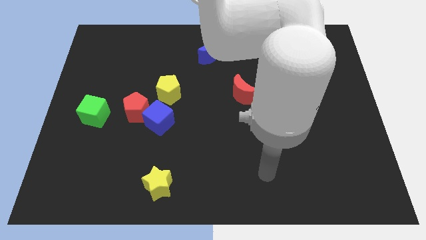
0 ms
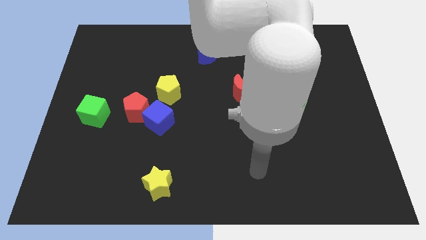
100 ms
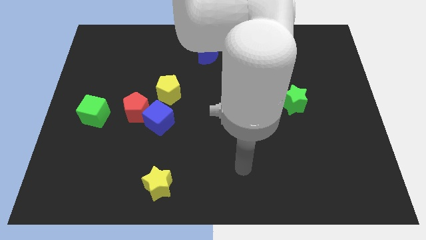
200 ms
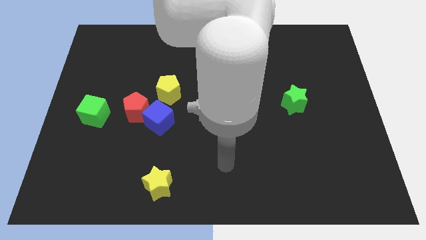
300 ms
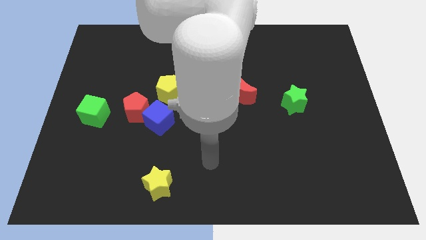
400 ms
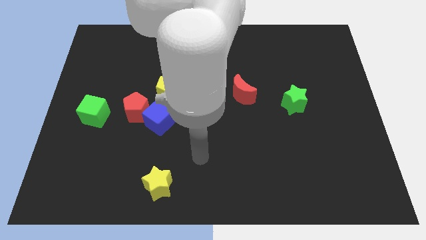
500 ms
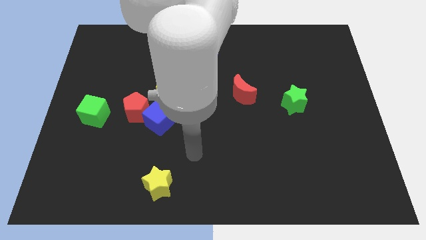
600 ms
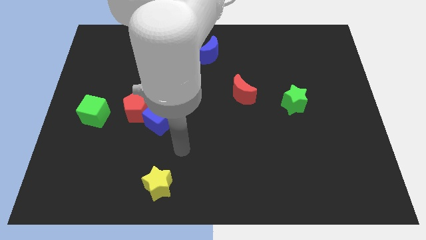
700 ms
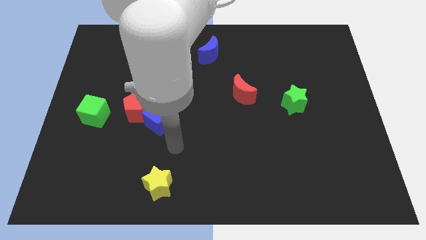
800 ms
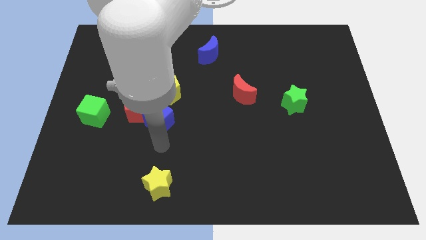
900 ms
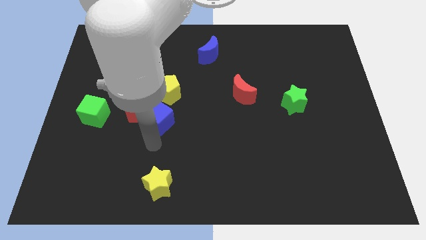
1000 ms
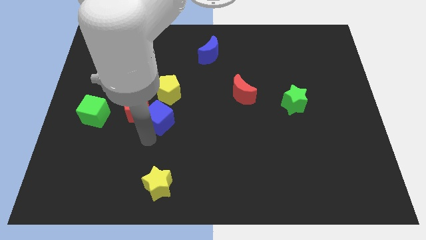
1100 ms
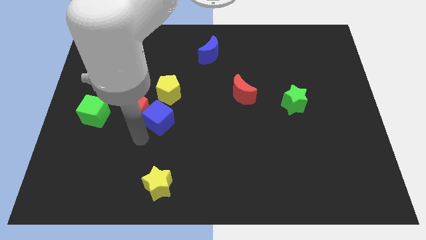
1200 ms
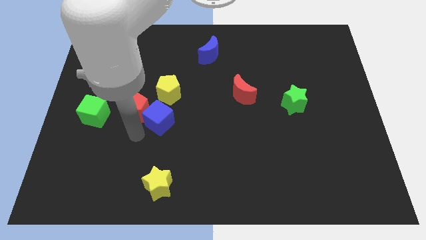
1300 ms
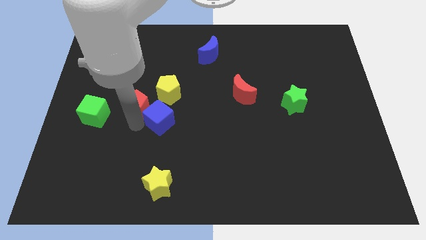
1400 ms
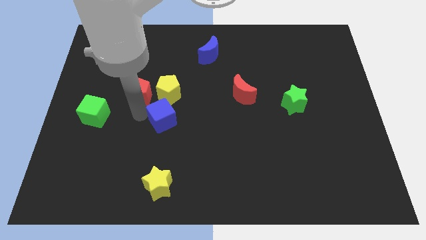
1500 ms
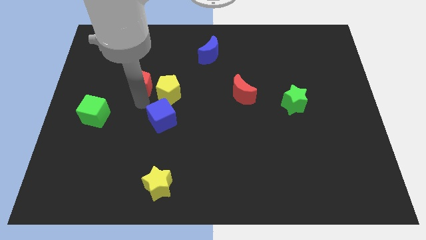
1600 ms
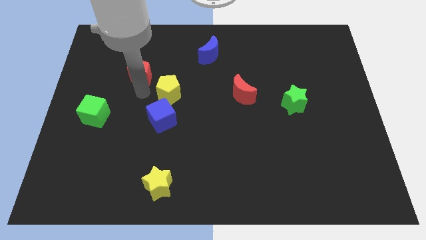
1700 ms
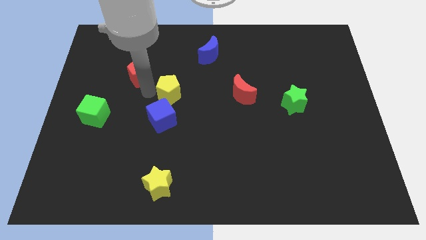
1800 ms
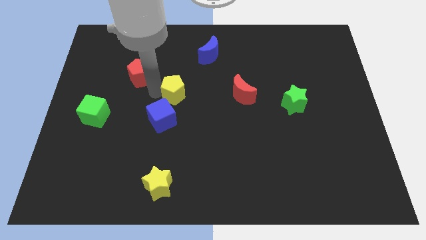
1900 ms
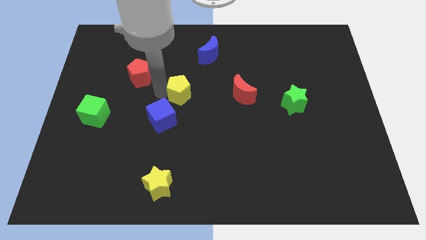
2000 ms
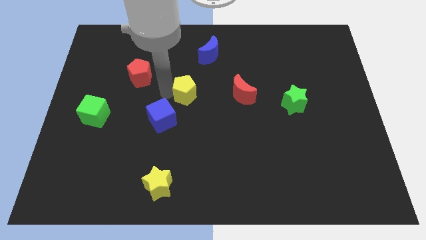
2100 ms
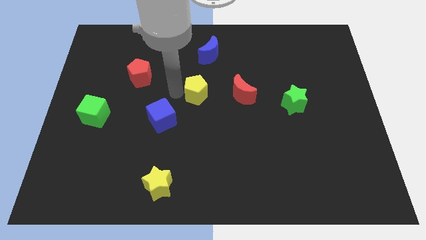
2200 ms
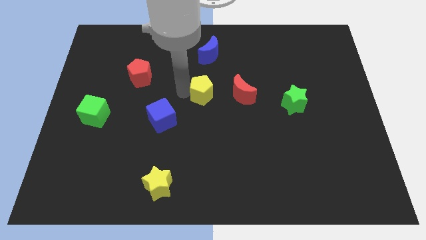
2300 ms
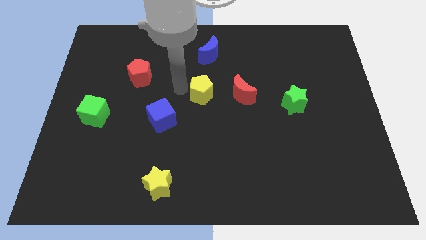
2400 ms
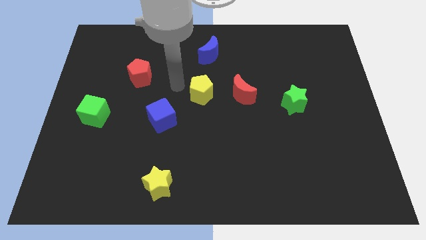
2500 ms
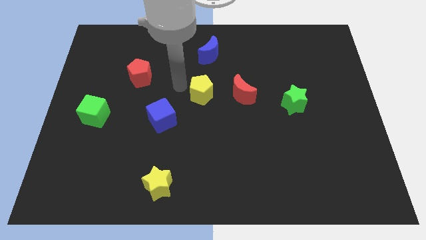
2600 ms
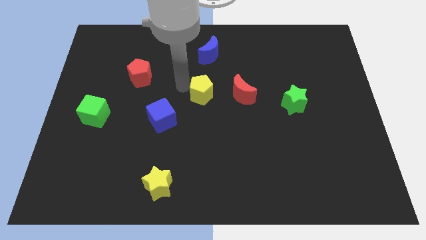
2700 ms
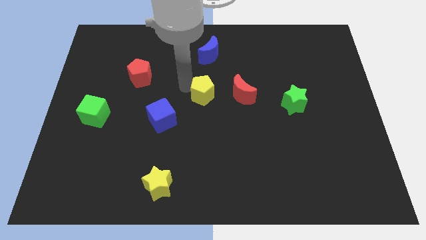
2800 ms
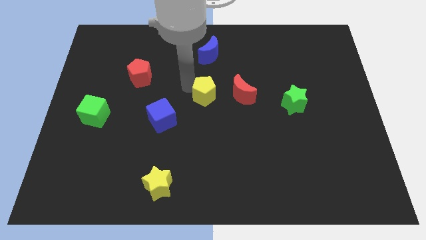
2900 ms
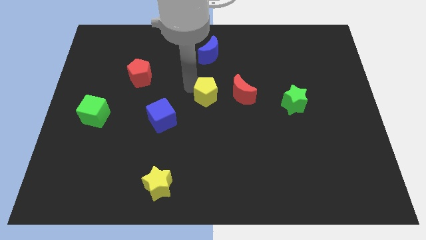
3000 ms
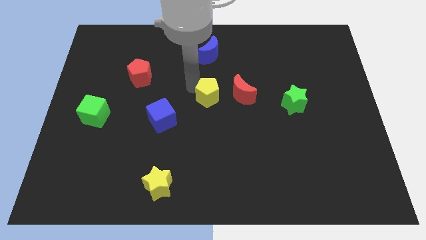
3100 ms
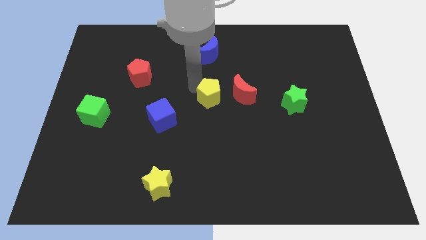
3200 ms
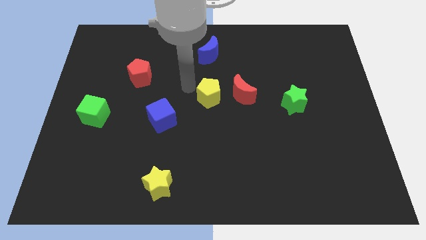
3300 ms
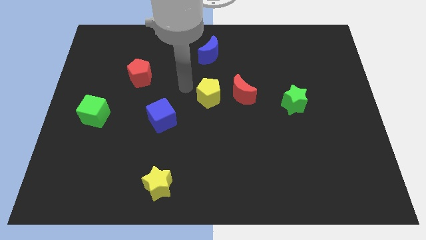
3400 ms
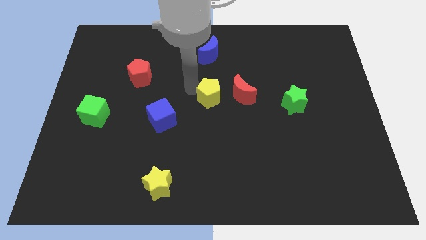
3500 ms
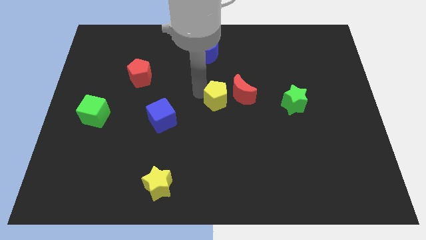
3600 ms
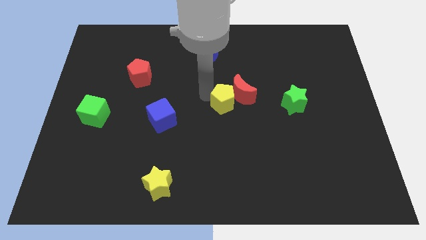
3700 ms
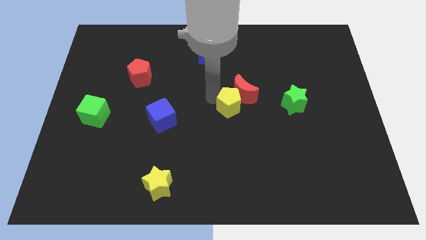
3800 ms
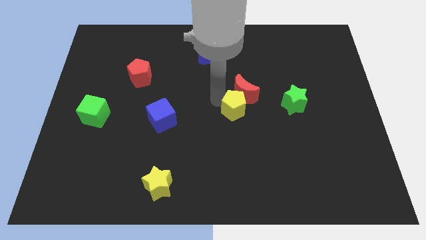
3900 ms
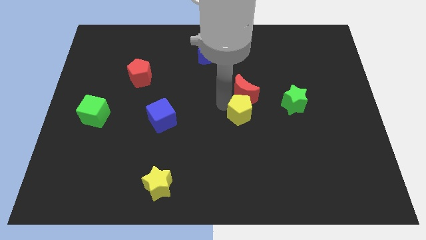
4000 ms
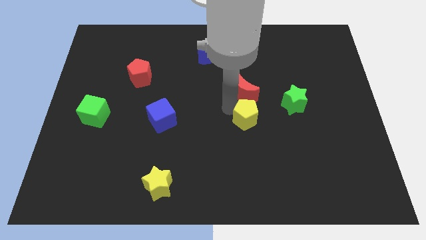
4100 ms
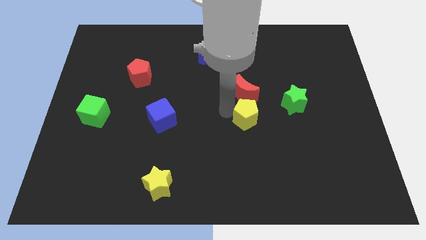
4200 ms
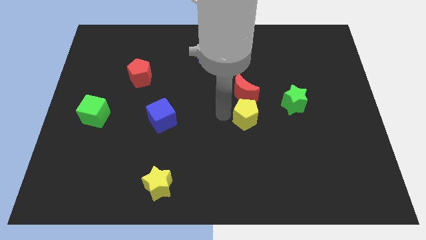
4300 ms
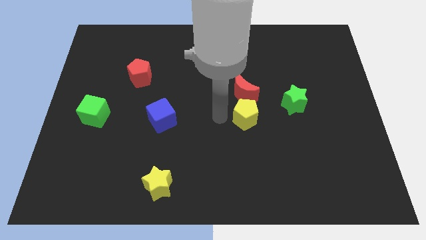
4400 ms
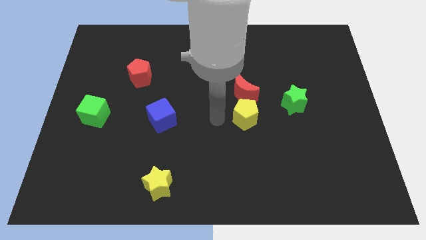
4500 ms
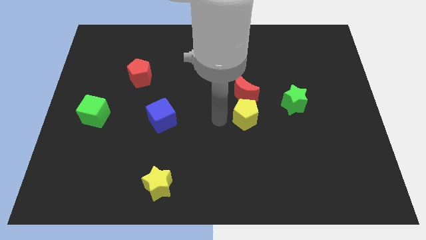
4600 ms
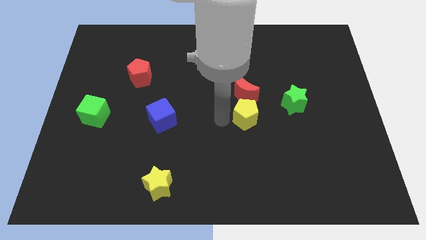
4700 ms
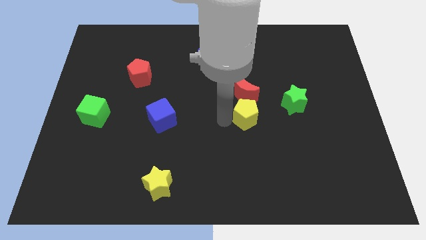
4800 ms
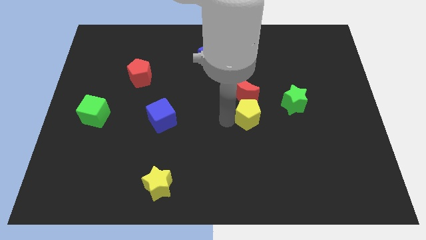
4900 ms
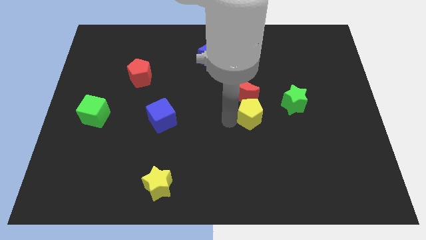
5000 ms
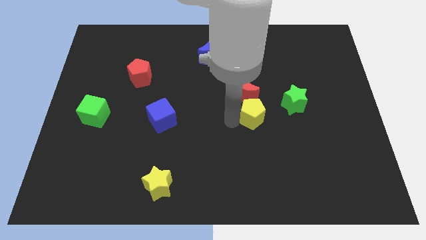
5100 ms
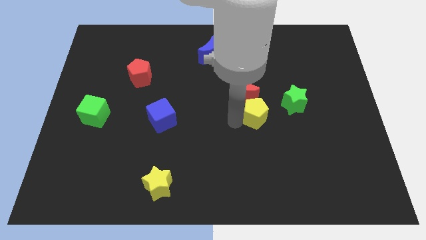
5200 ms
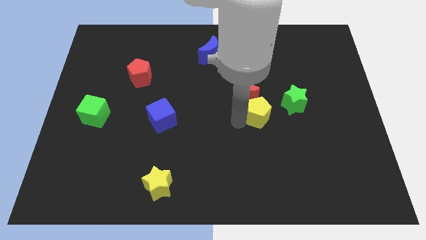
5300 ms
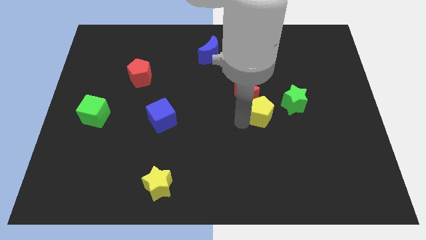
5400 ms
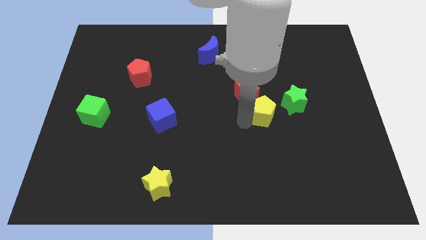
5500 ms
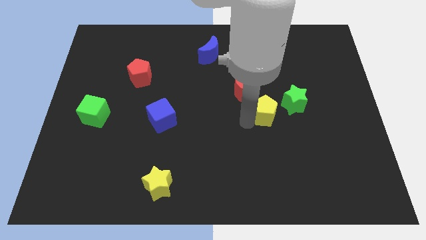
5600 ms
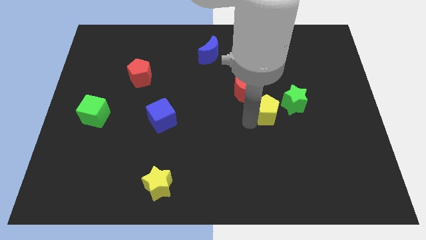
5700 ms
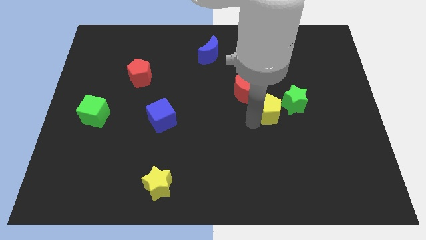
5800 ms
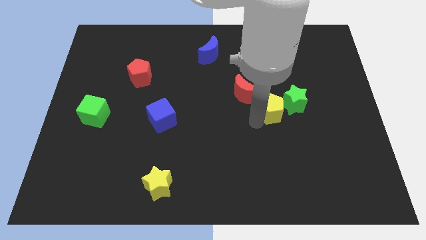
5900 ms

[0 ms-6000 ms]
move the yellow pentagon close to the green star

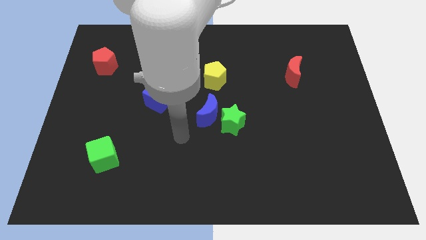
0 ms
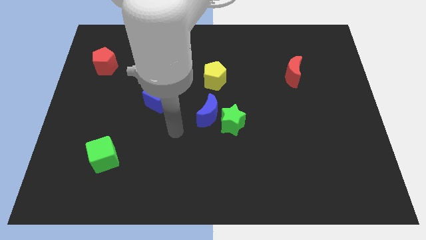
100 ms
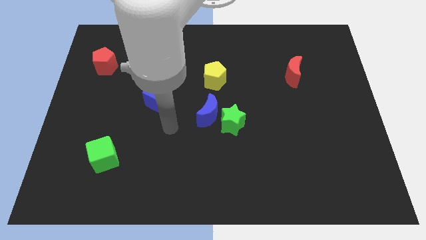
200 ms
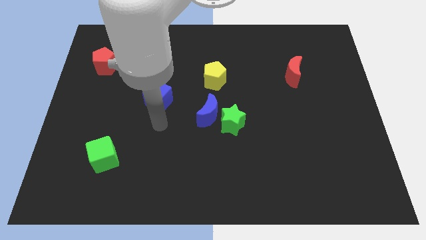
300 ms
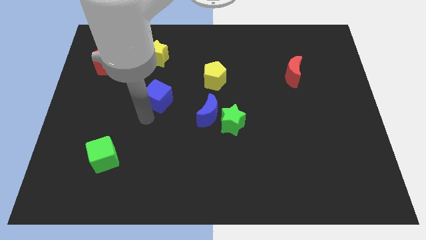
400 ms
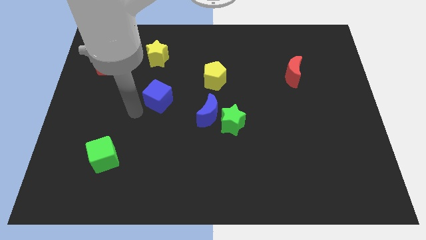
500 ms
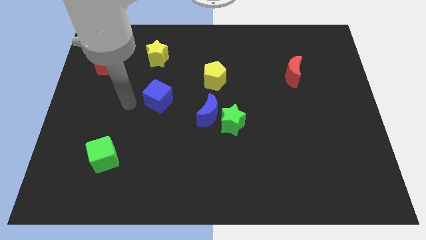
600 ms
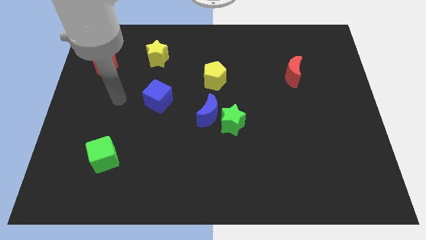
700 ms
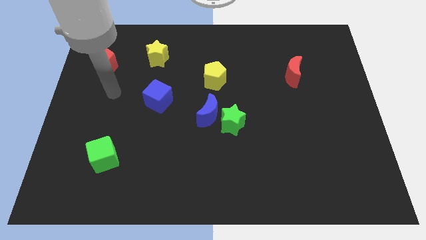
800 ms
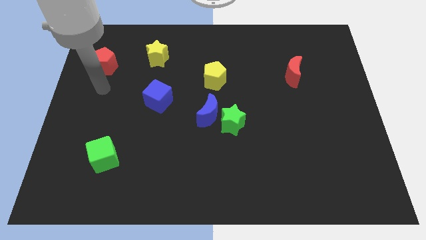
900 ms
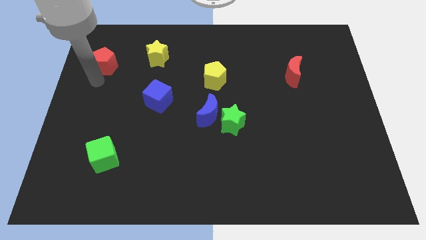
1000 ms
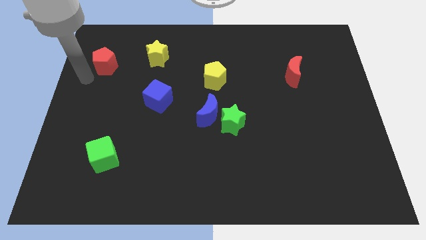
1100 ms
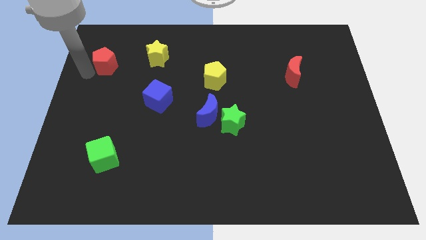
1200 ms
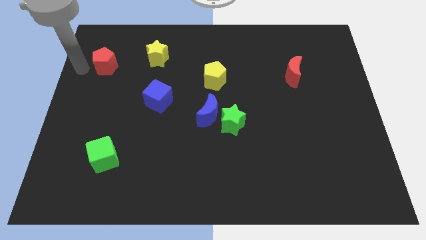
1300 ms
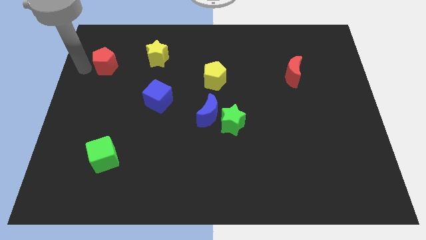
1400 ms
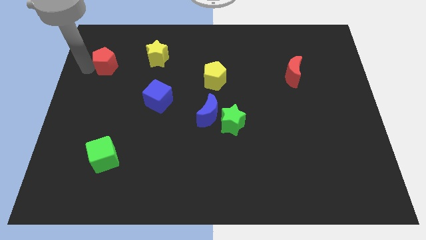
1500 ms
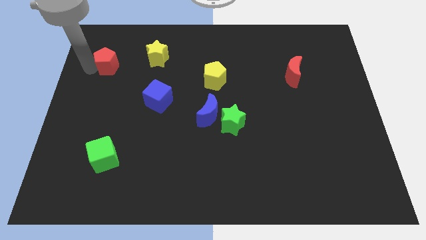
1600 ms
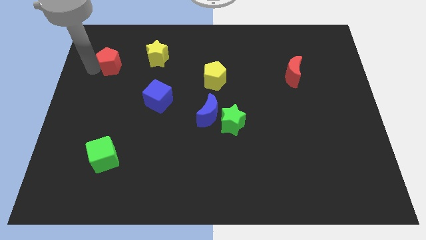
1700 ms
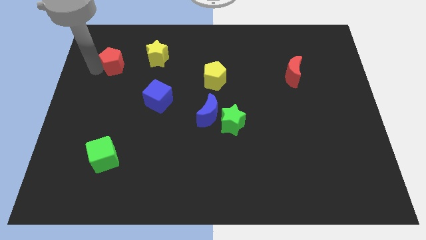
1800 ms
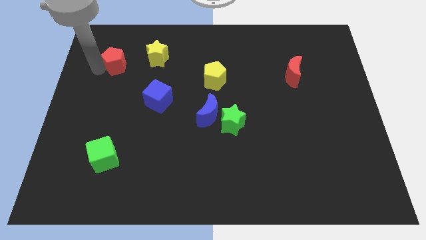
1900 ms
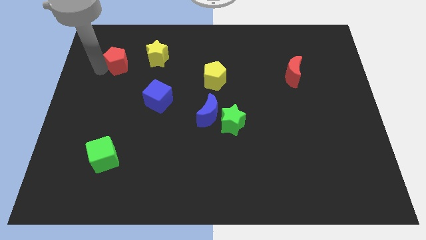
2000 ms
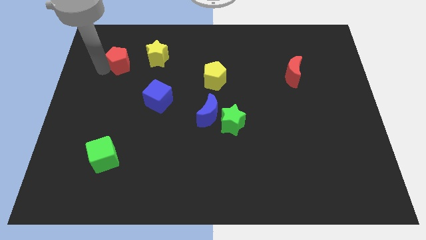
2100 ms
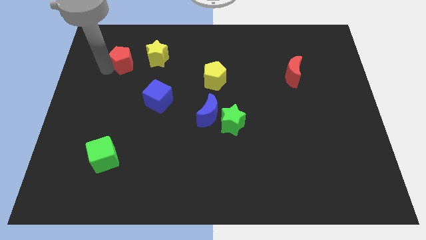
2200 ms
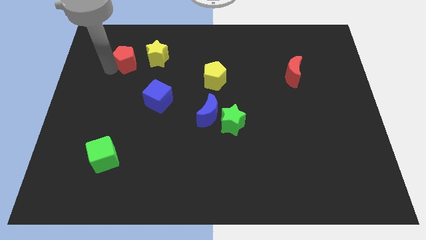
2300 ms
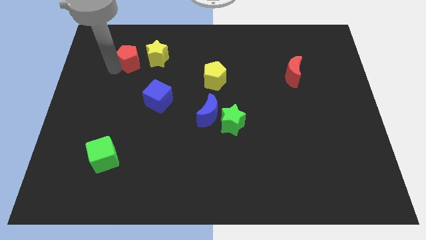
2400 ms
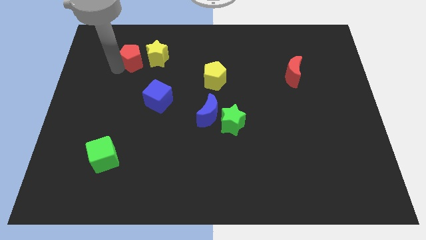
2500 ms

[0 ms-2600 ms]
slide the red pentagon towards the yellow star
